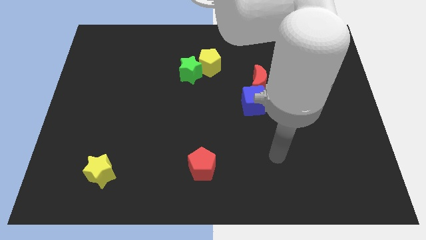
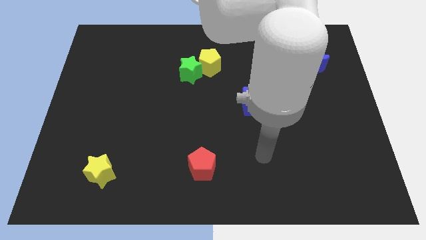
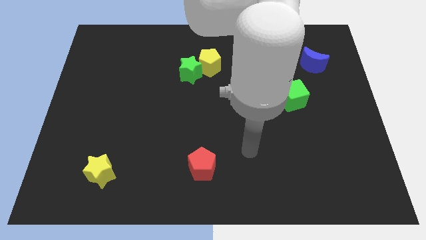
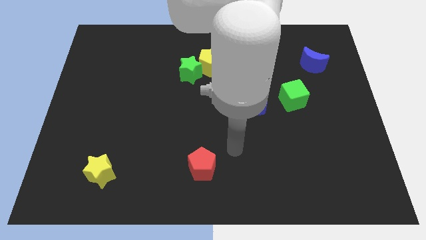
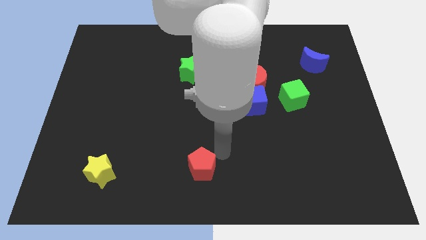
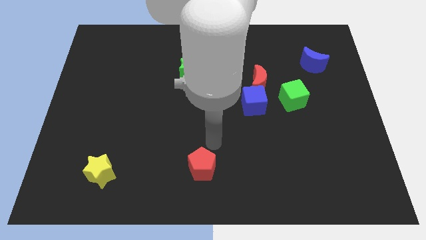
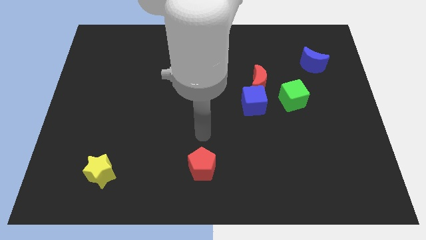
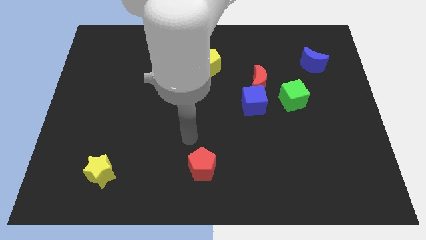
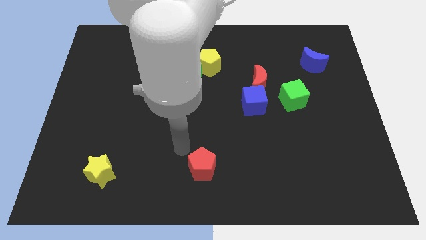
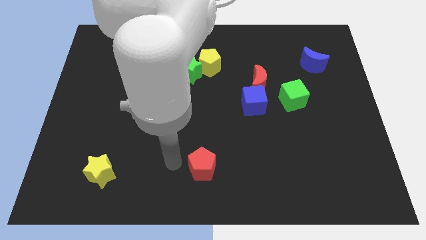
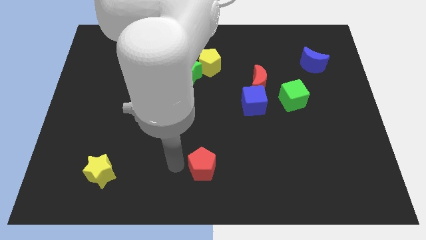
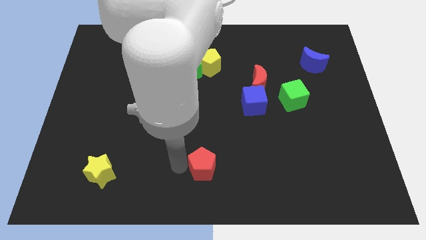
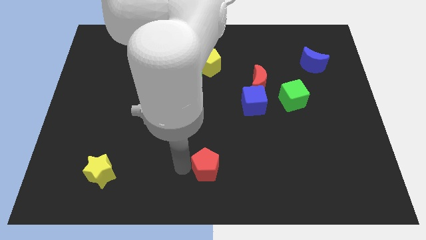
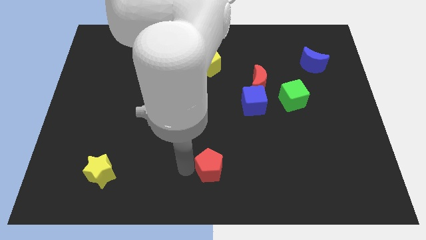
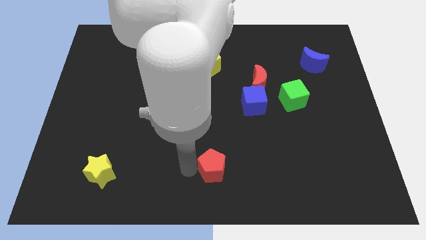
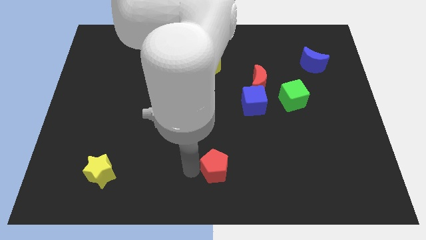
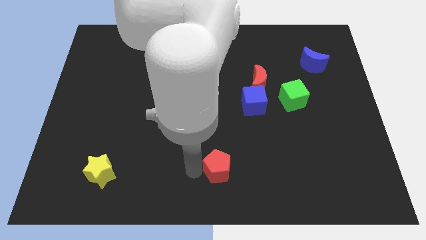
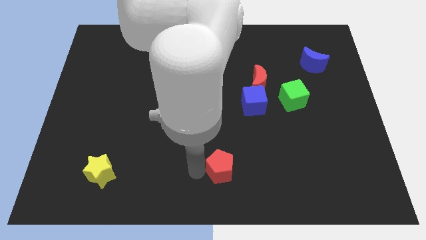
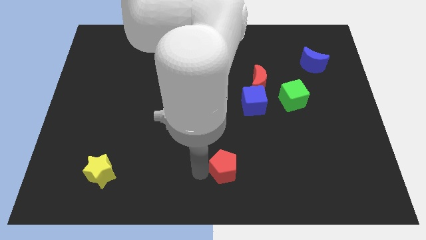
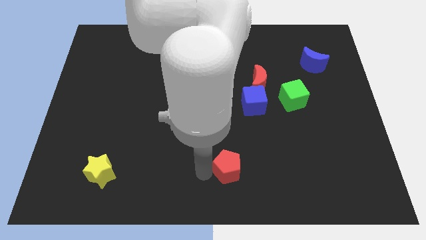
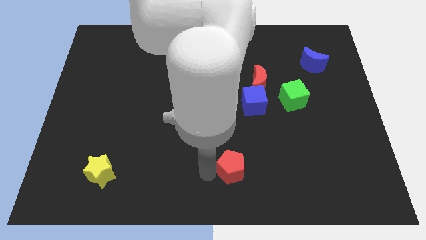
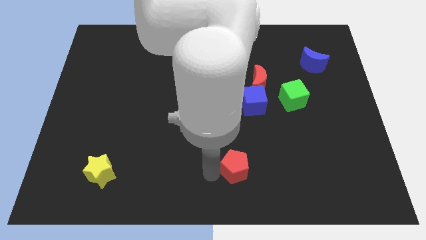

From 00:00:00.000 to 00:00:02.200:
move the red pentagon right a bit

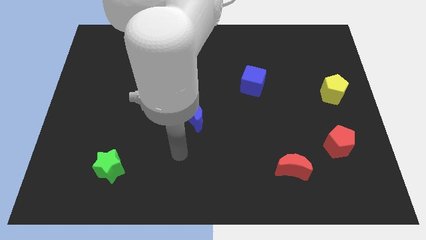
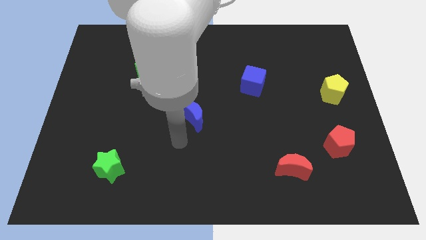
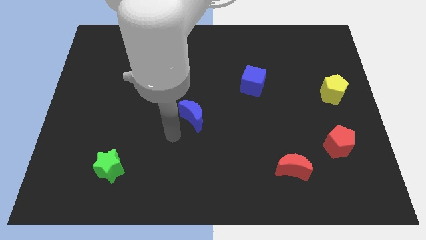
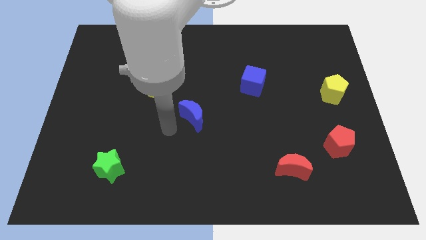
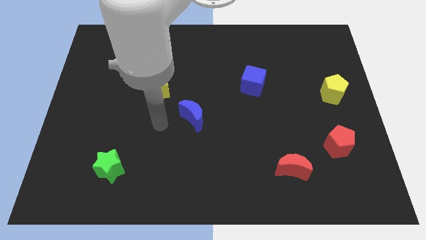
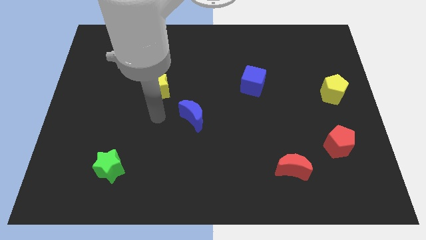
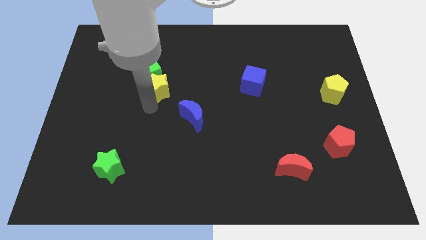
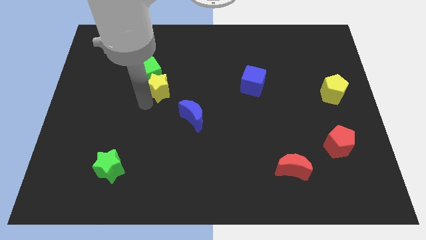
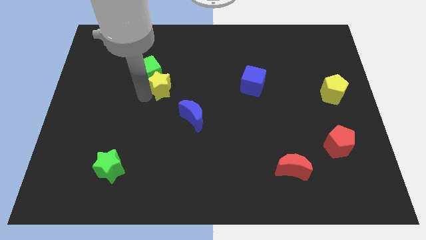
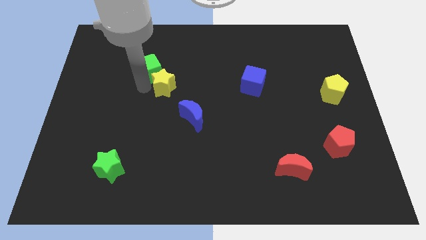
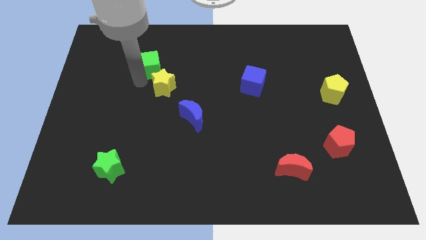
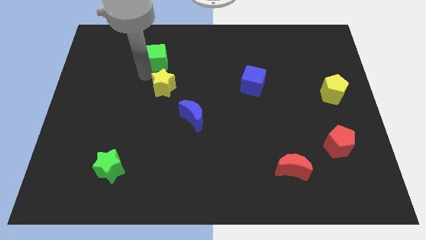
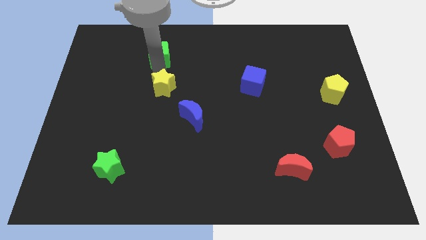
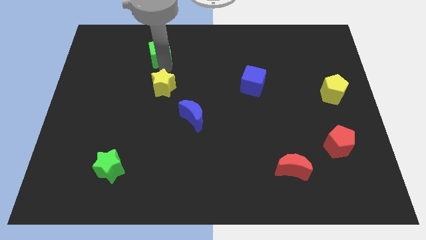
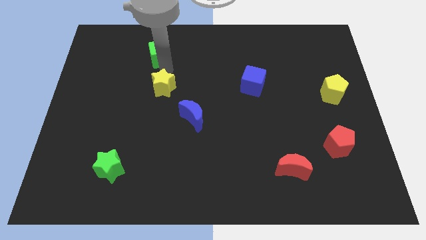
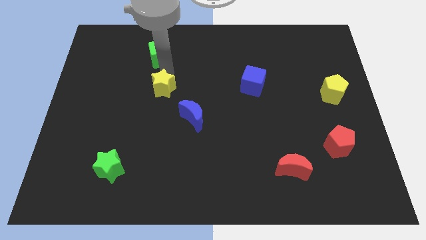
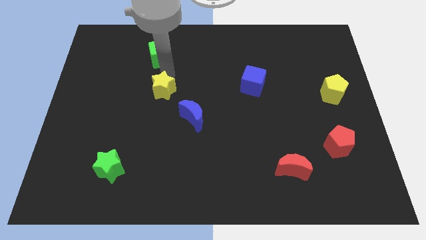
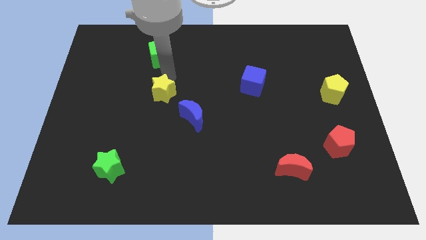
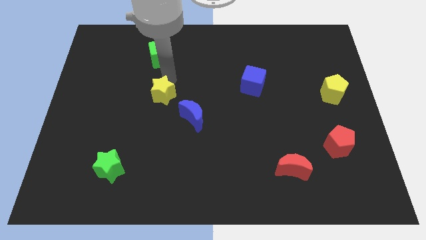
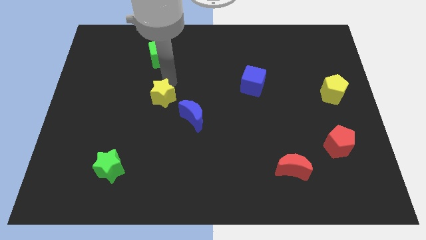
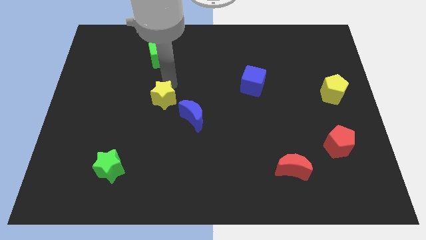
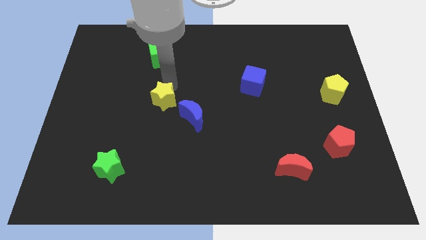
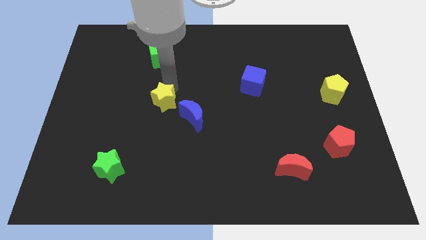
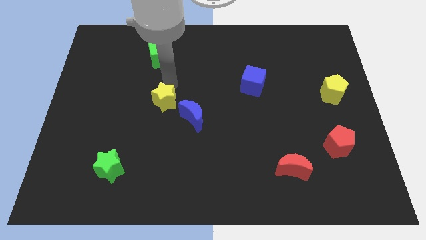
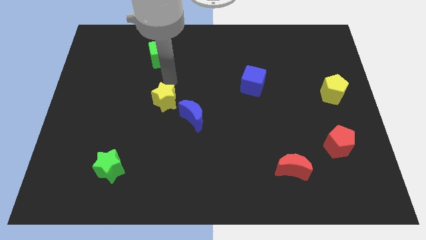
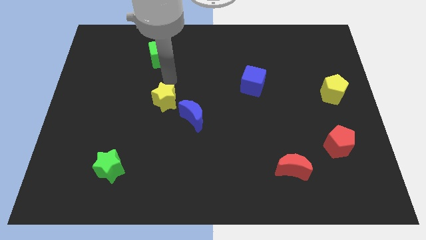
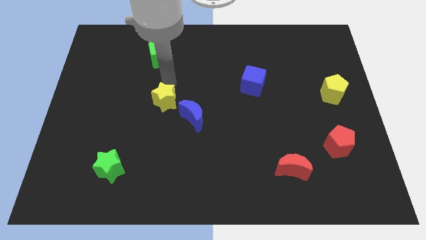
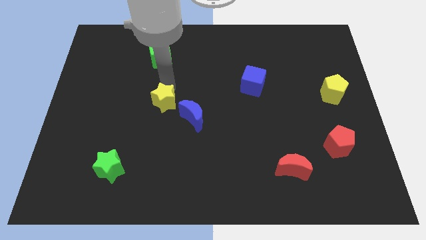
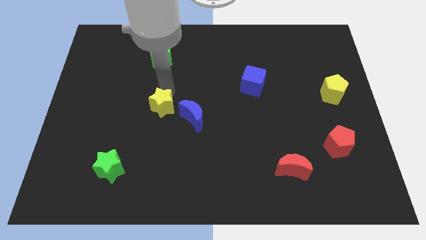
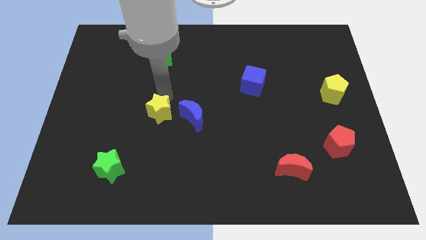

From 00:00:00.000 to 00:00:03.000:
slightly slide the yellow star down

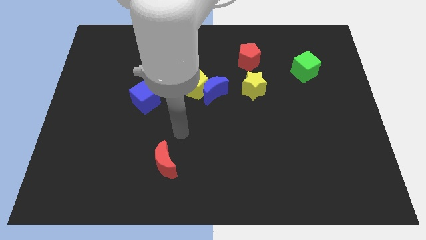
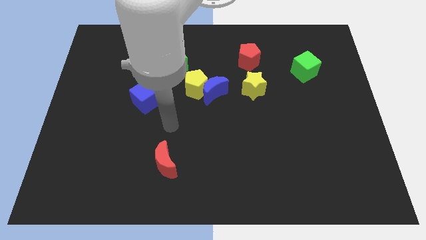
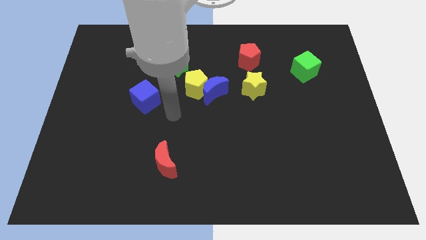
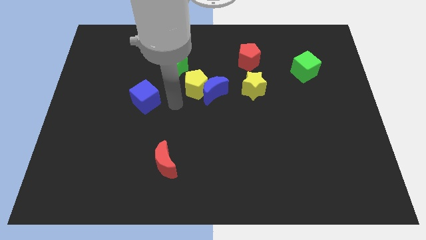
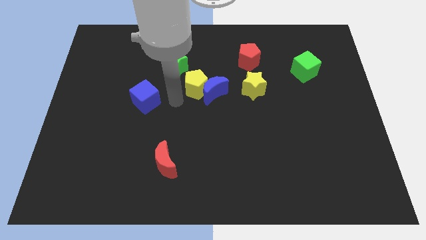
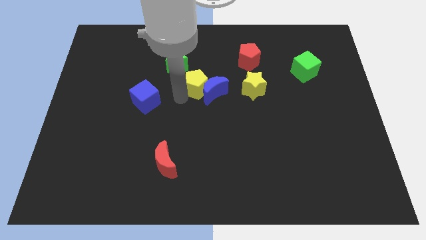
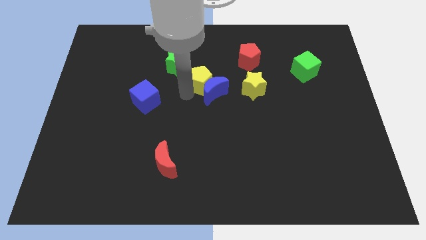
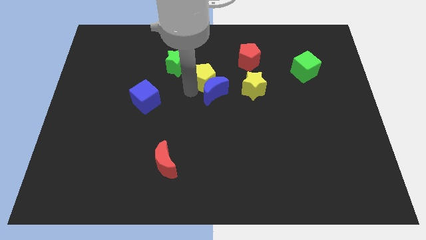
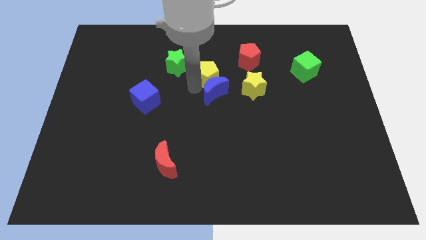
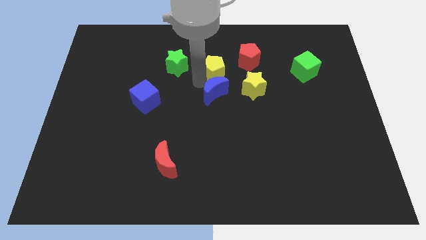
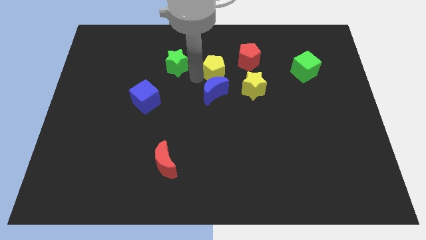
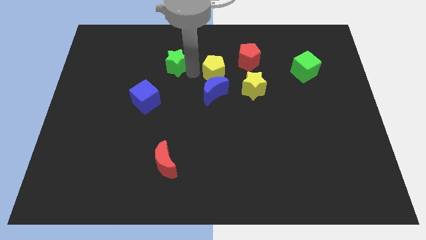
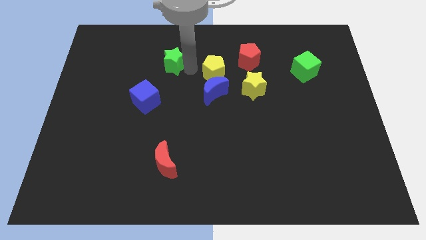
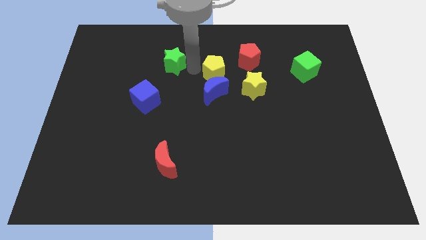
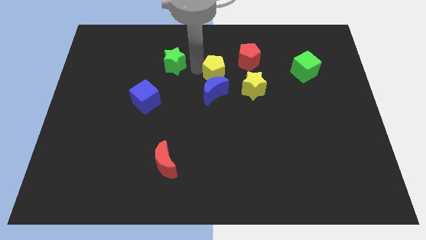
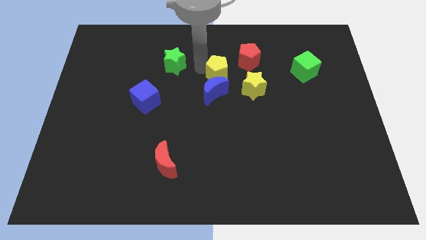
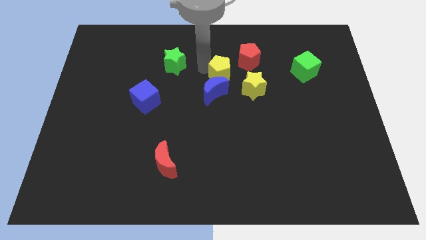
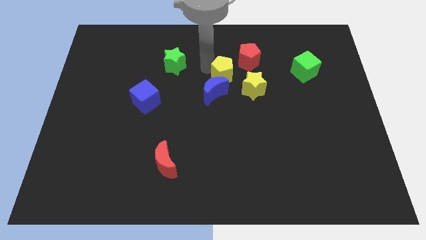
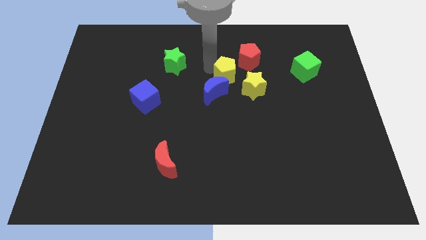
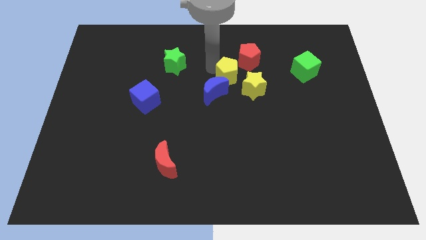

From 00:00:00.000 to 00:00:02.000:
move the yellow pentagon a little bit right

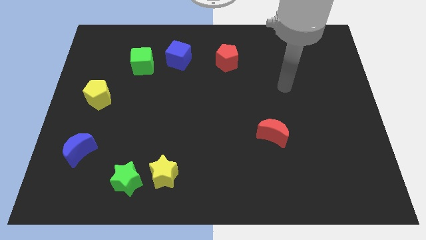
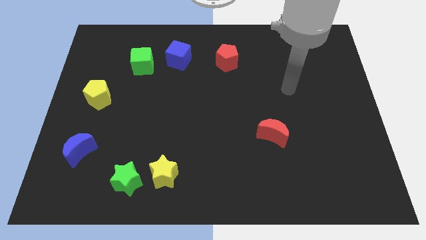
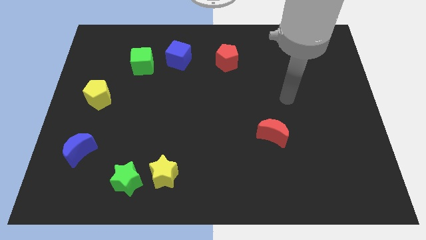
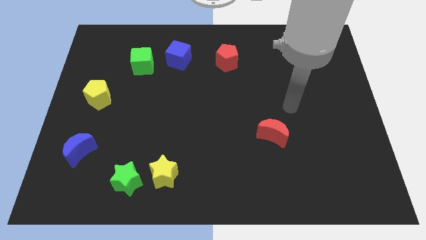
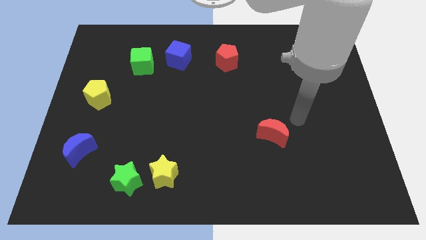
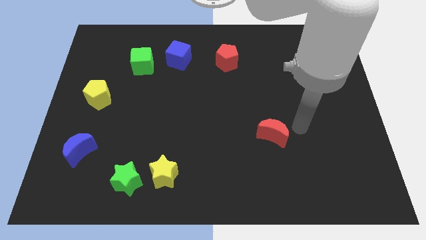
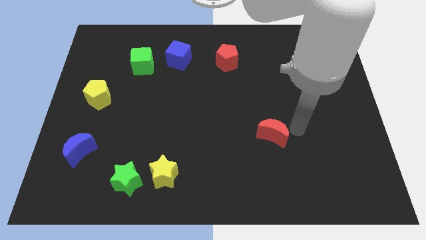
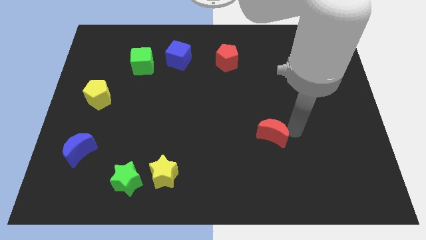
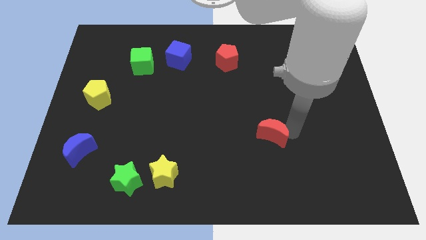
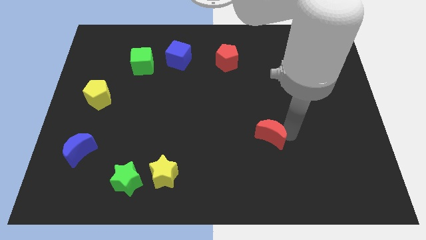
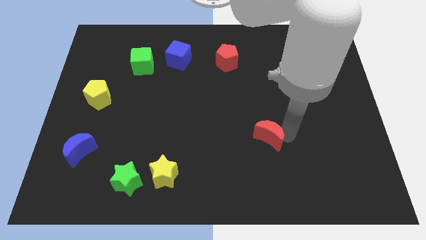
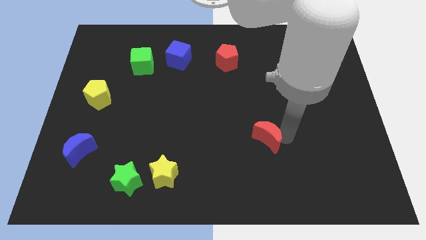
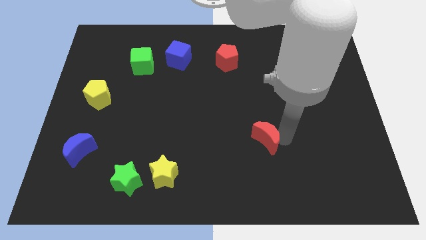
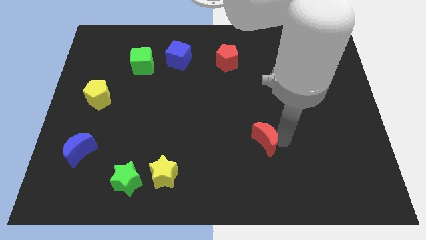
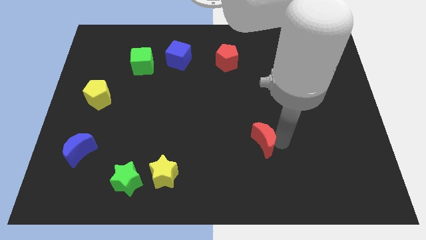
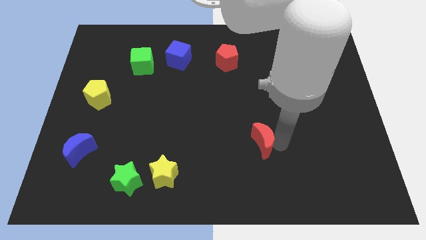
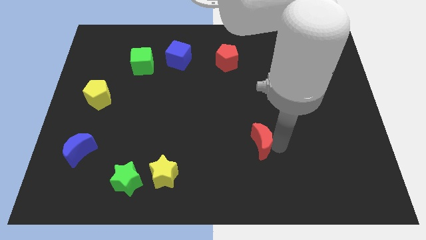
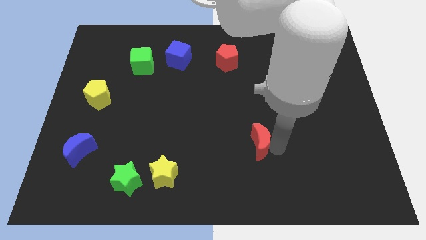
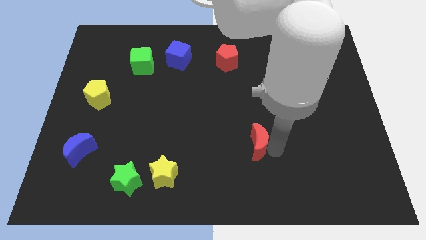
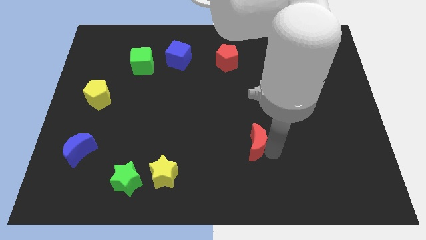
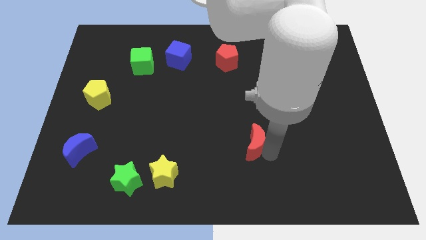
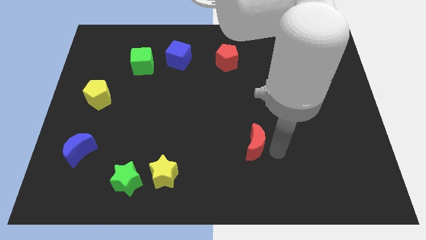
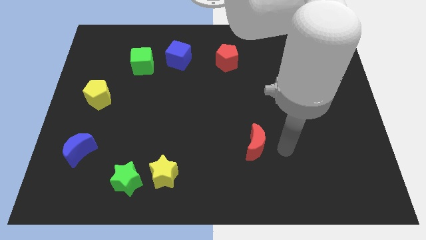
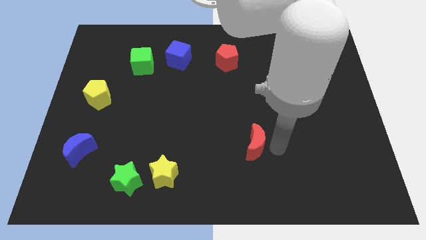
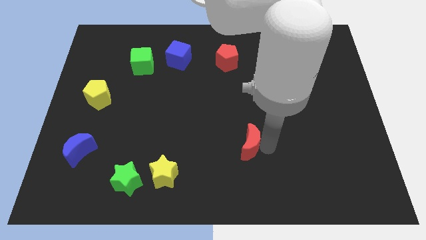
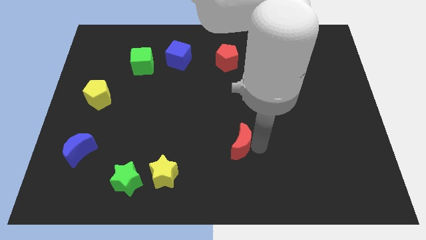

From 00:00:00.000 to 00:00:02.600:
slightly push the red moon to the left
